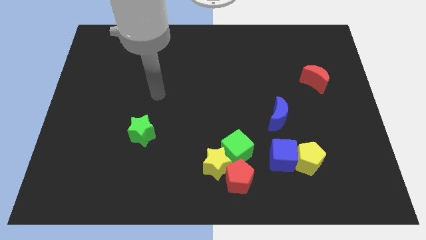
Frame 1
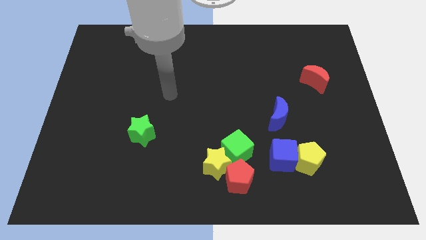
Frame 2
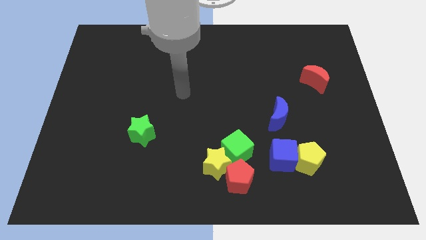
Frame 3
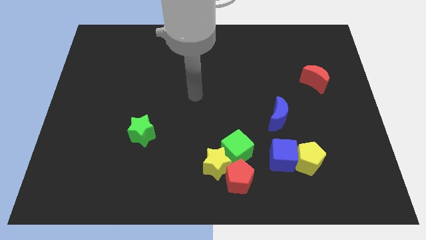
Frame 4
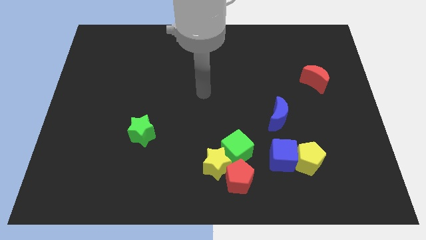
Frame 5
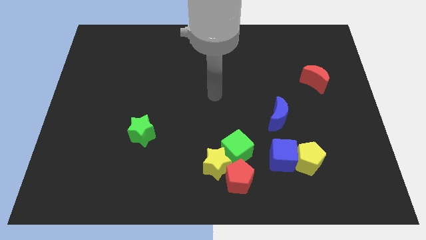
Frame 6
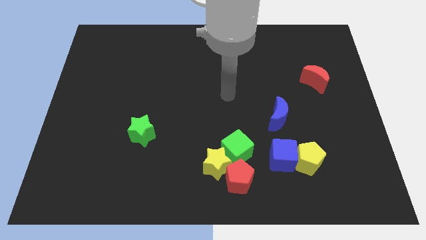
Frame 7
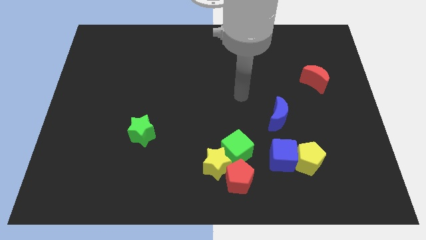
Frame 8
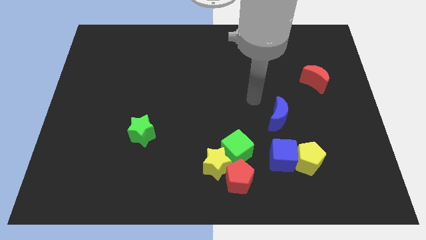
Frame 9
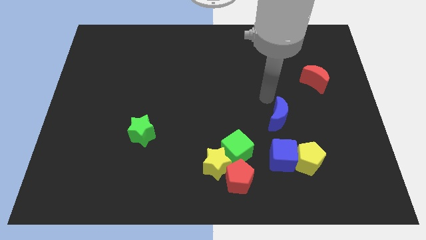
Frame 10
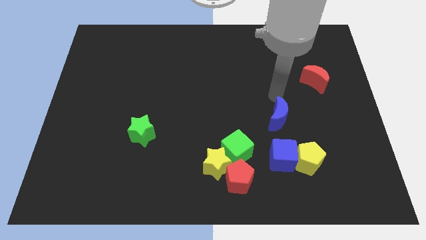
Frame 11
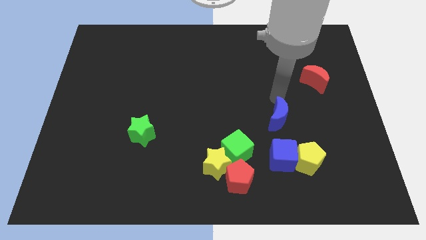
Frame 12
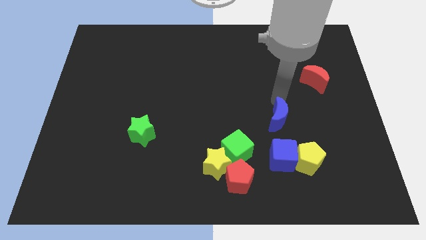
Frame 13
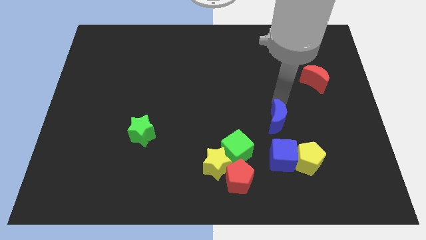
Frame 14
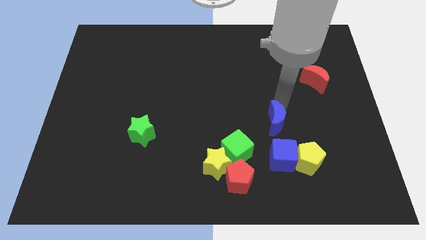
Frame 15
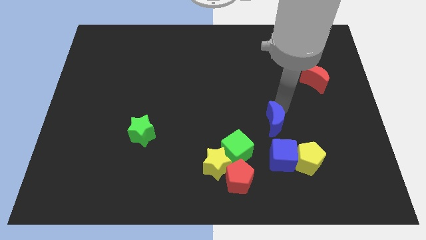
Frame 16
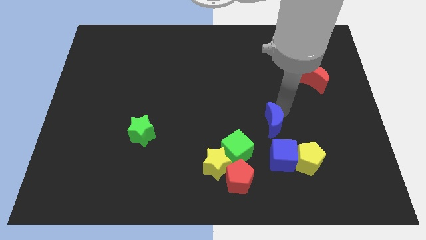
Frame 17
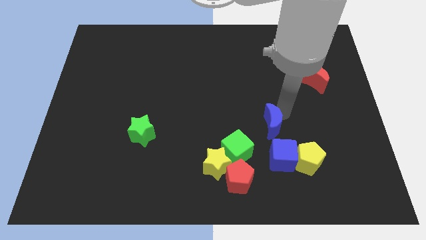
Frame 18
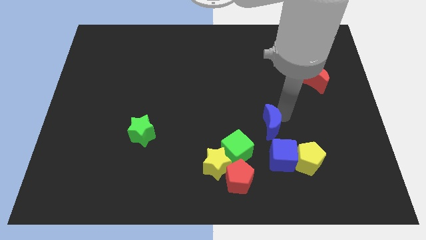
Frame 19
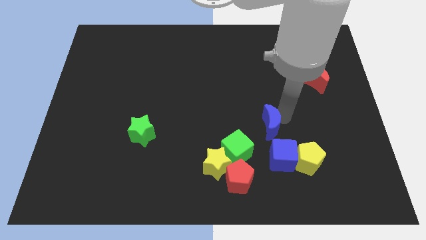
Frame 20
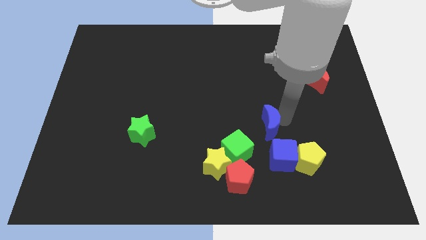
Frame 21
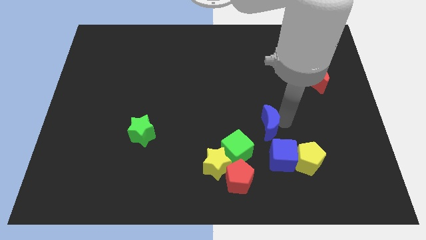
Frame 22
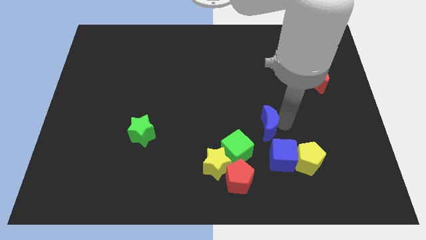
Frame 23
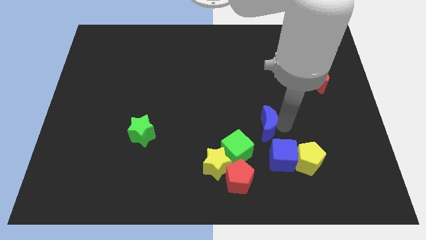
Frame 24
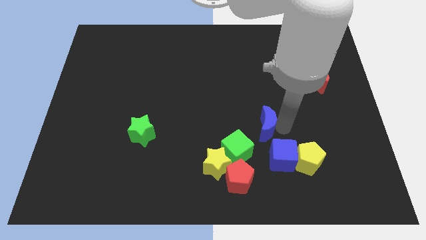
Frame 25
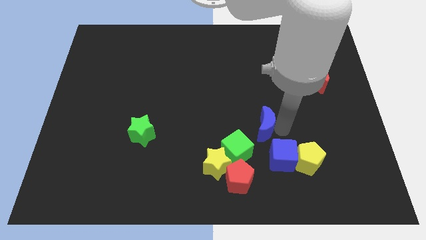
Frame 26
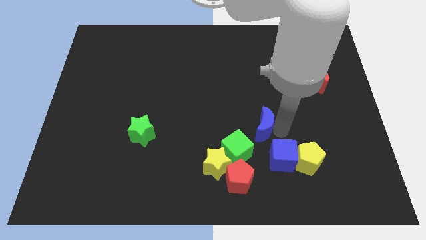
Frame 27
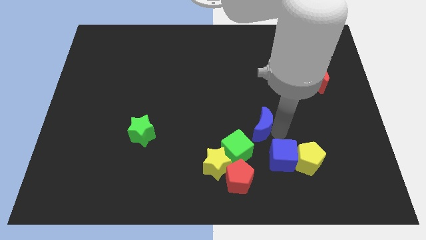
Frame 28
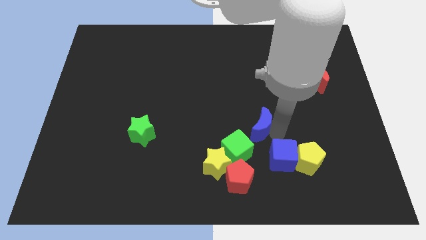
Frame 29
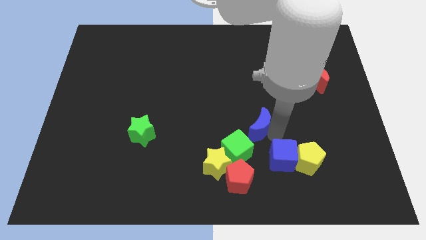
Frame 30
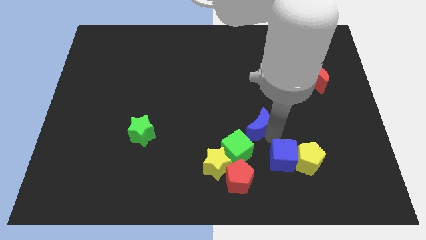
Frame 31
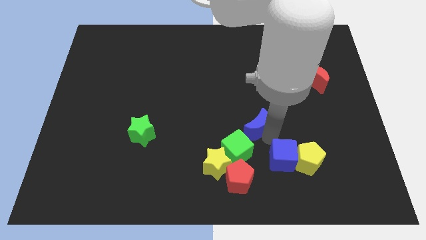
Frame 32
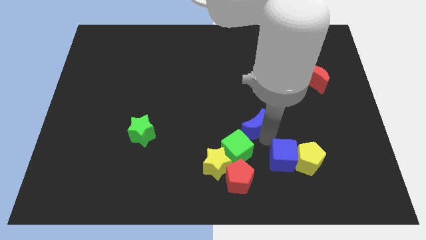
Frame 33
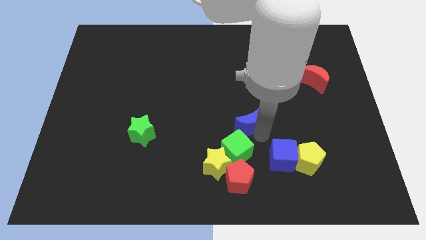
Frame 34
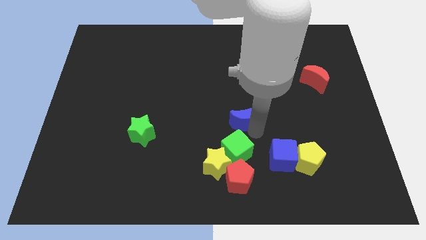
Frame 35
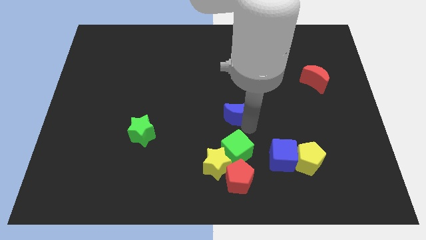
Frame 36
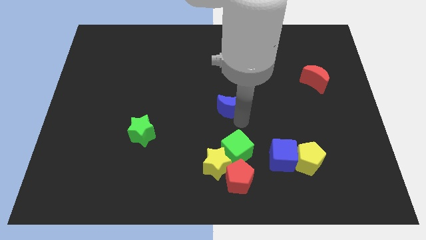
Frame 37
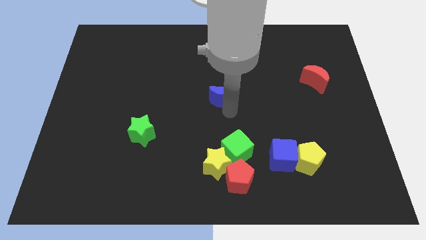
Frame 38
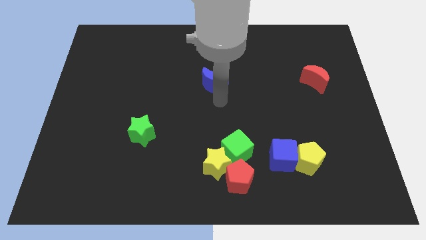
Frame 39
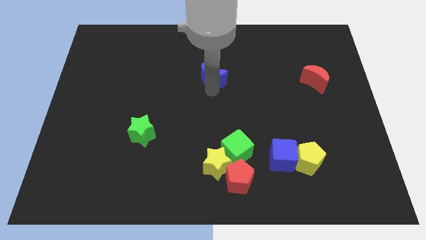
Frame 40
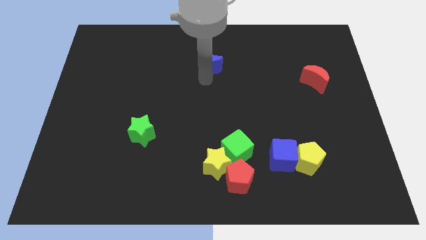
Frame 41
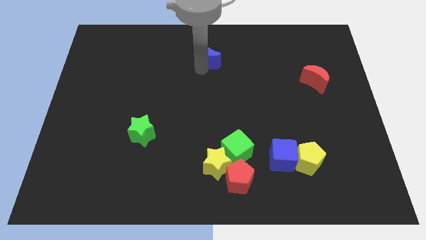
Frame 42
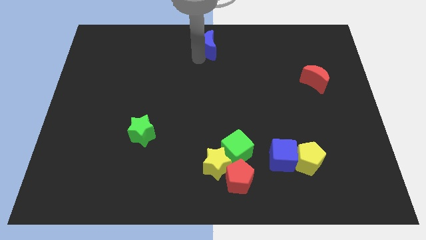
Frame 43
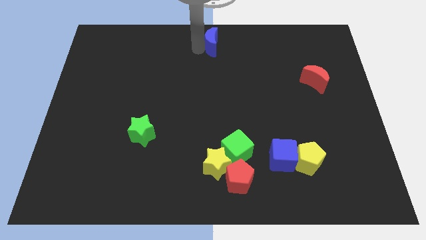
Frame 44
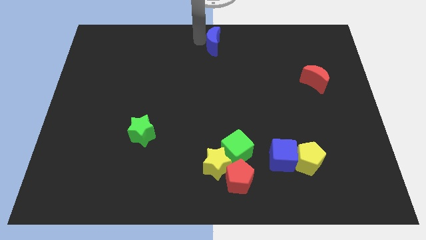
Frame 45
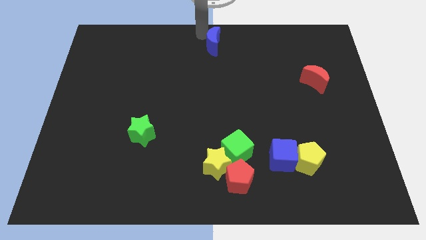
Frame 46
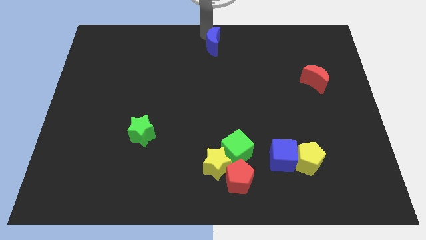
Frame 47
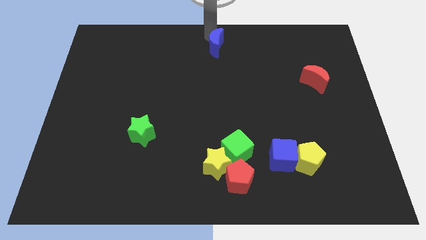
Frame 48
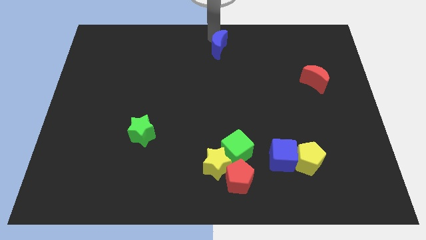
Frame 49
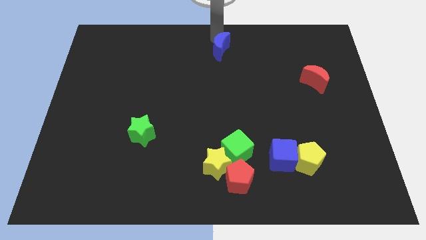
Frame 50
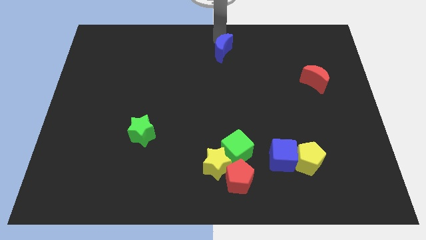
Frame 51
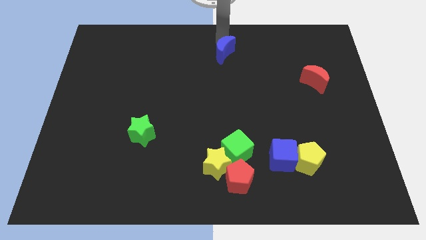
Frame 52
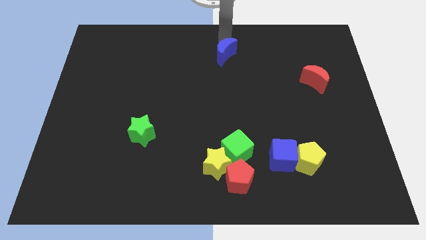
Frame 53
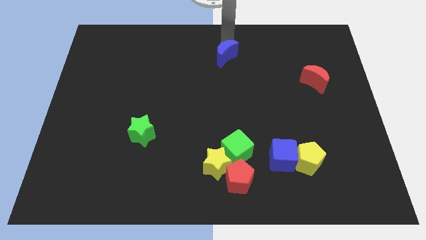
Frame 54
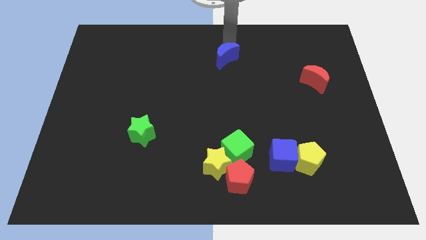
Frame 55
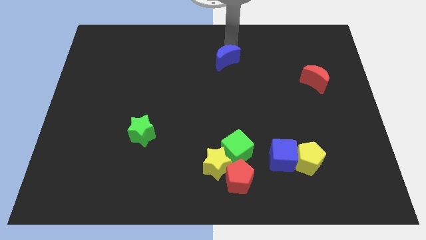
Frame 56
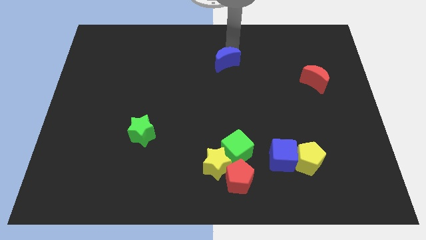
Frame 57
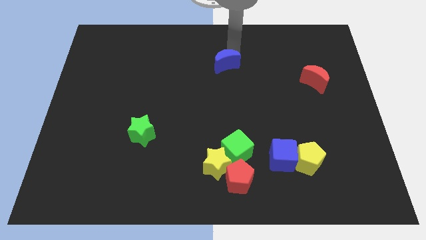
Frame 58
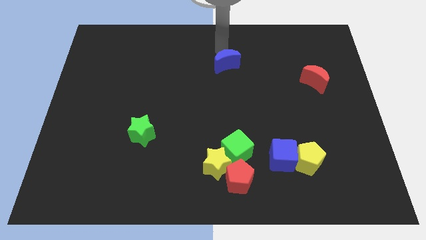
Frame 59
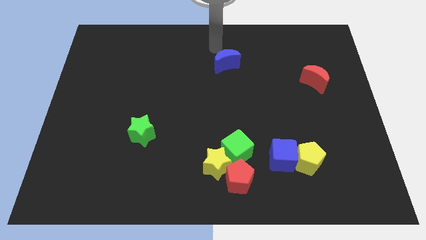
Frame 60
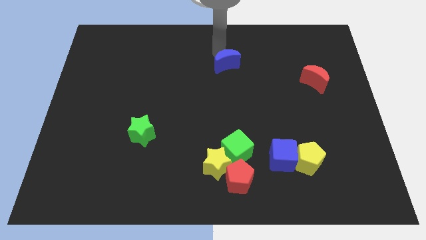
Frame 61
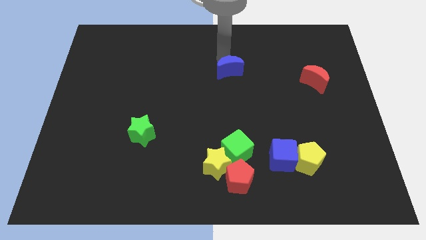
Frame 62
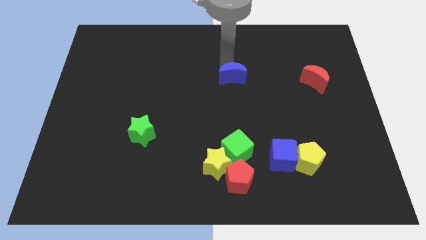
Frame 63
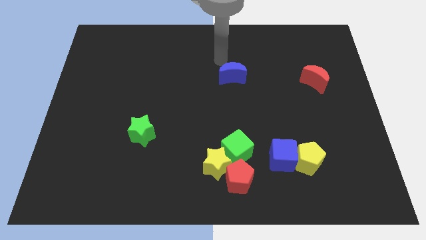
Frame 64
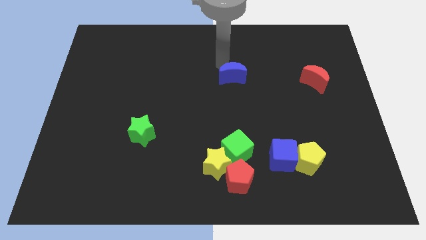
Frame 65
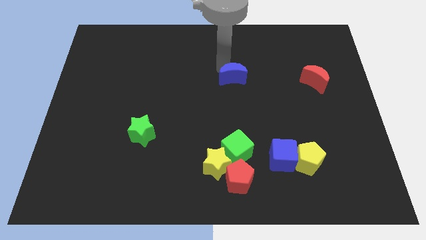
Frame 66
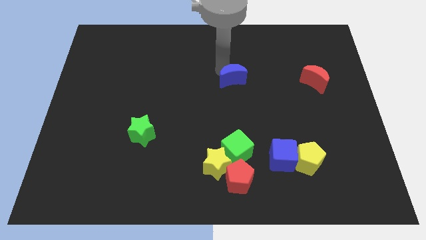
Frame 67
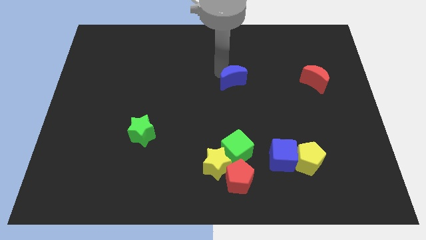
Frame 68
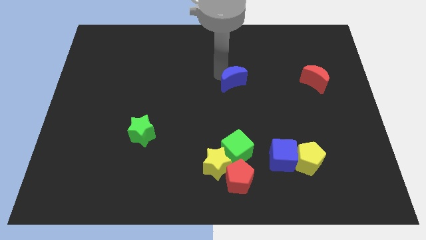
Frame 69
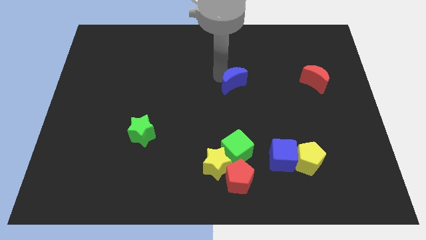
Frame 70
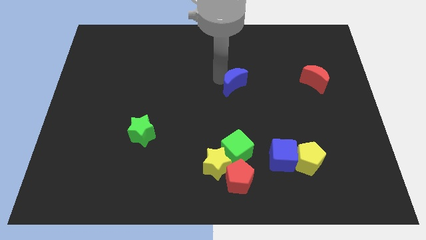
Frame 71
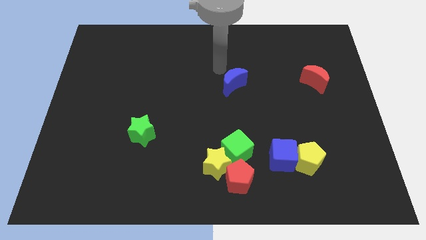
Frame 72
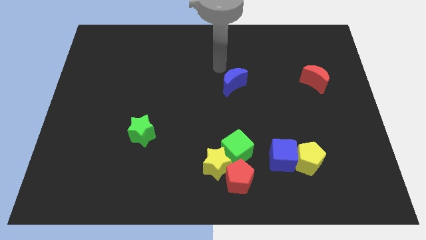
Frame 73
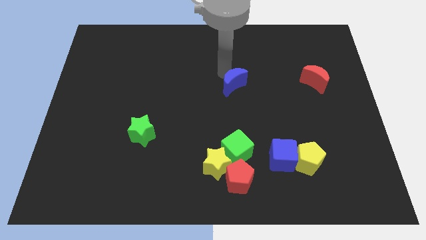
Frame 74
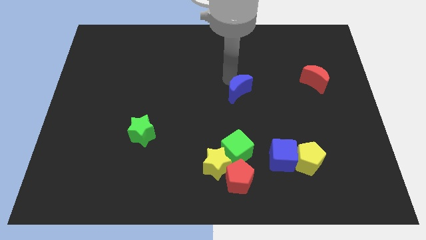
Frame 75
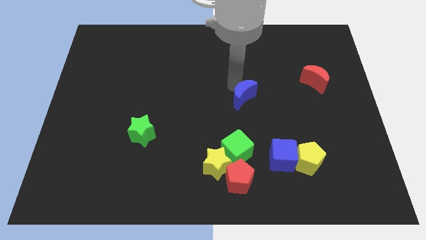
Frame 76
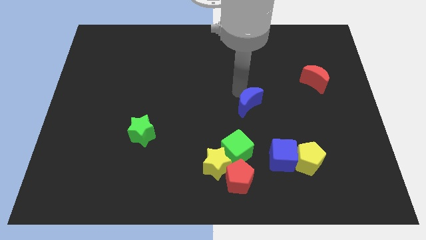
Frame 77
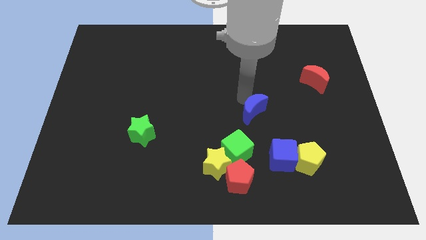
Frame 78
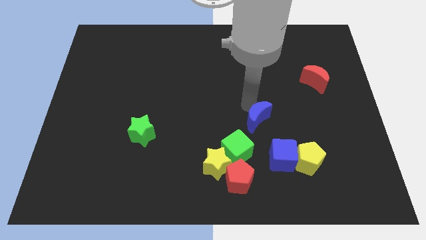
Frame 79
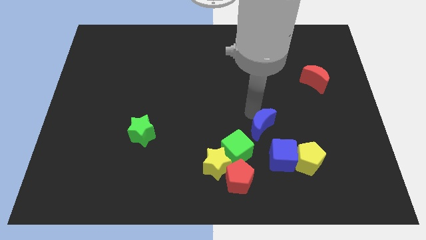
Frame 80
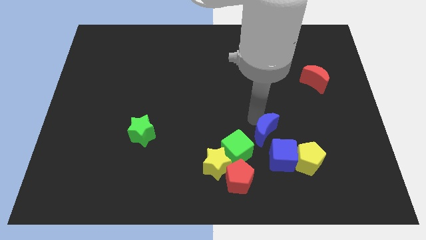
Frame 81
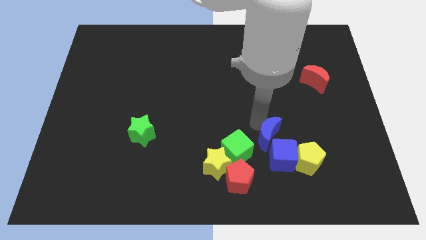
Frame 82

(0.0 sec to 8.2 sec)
push the blue moon towards the blue cube
